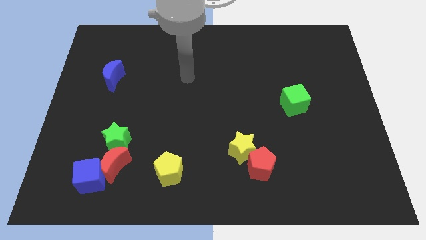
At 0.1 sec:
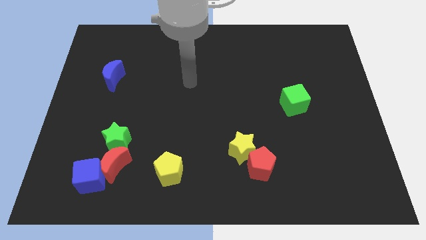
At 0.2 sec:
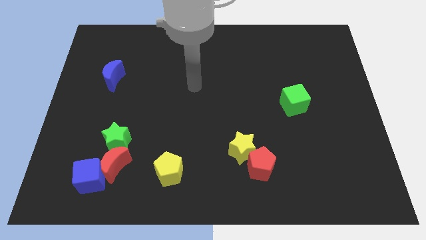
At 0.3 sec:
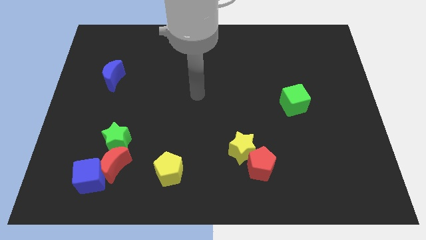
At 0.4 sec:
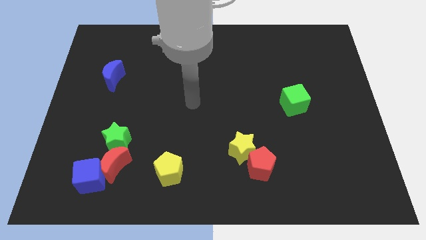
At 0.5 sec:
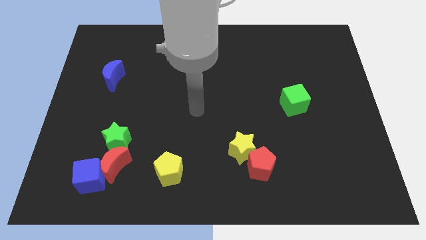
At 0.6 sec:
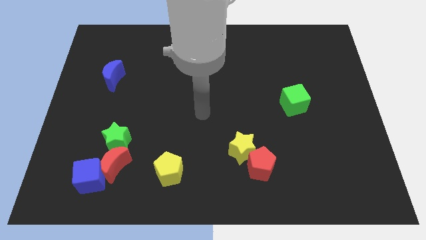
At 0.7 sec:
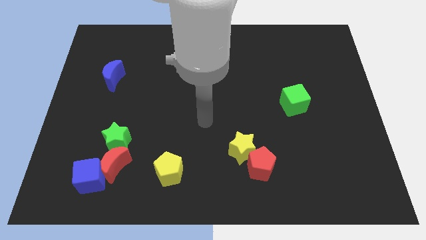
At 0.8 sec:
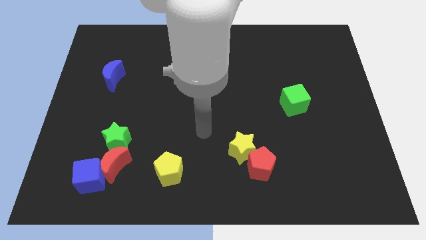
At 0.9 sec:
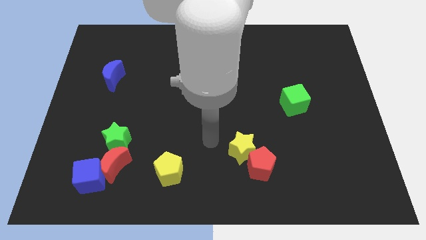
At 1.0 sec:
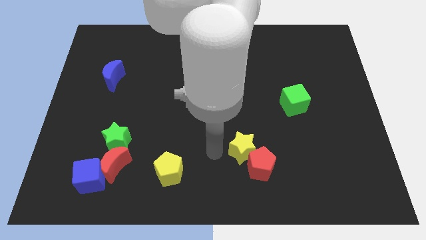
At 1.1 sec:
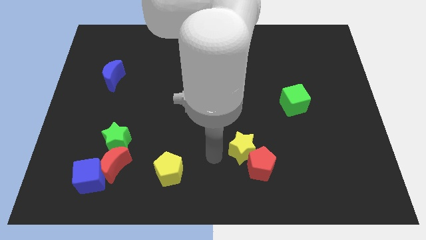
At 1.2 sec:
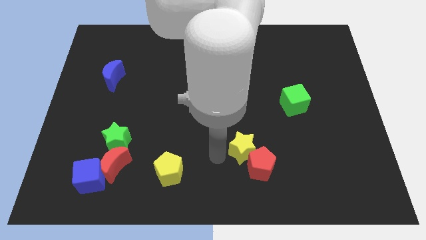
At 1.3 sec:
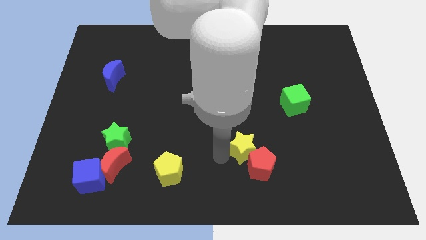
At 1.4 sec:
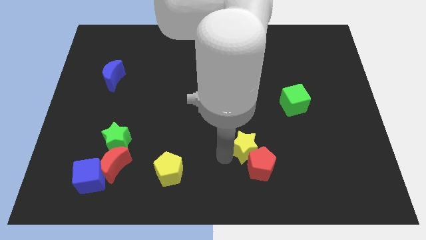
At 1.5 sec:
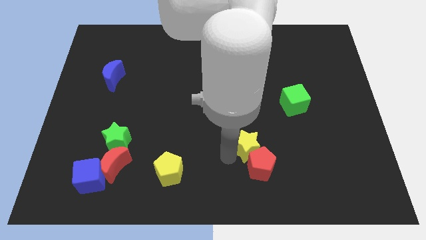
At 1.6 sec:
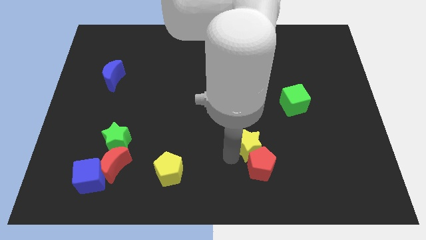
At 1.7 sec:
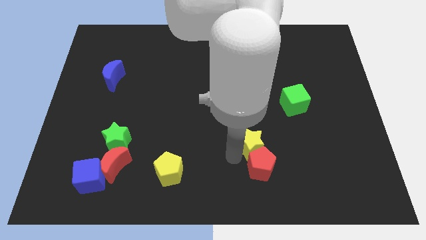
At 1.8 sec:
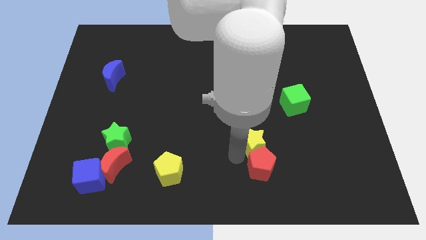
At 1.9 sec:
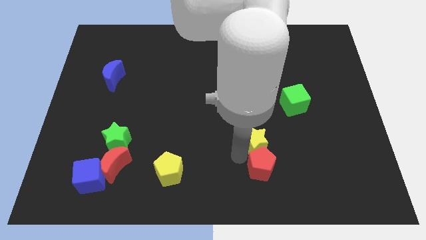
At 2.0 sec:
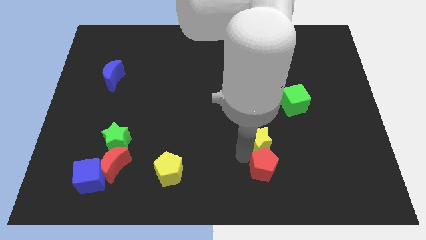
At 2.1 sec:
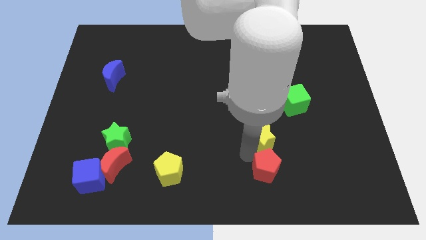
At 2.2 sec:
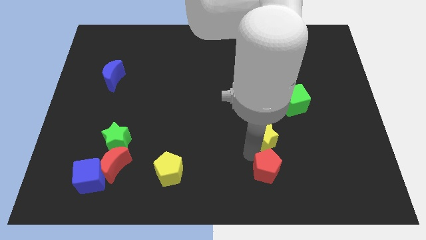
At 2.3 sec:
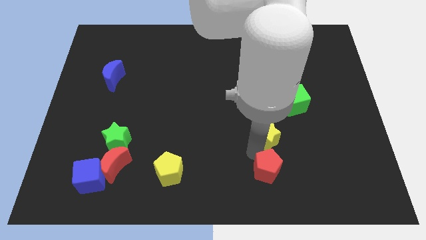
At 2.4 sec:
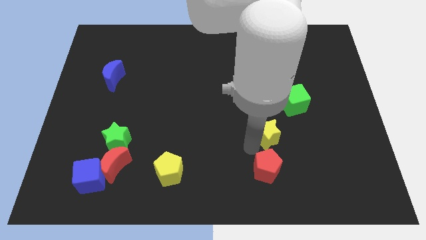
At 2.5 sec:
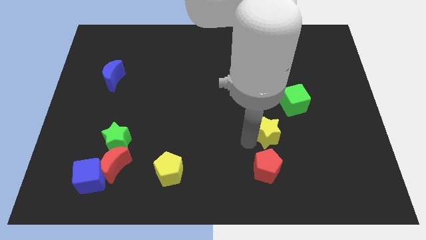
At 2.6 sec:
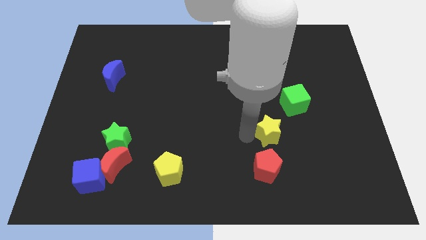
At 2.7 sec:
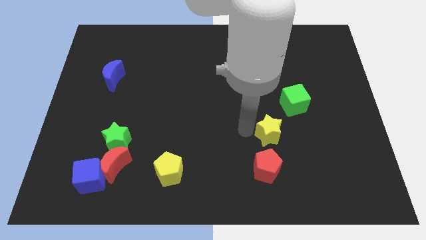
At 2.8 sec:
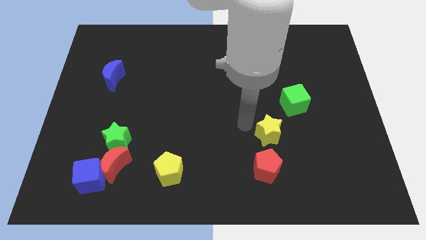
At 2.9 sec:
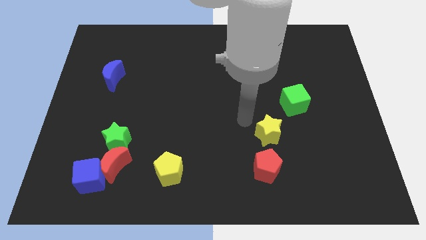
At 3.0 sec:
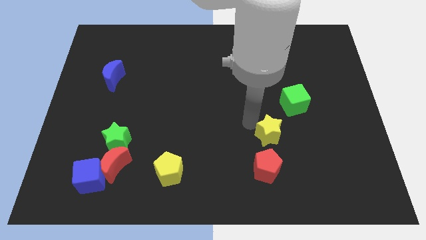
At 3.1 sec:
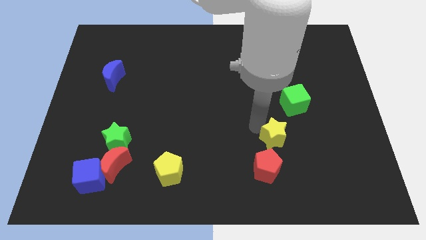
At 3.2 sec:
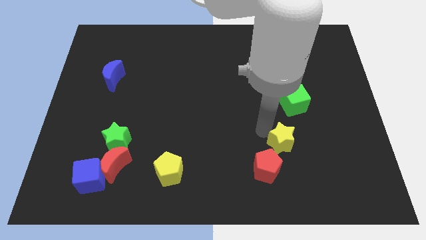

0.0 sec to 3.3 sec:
slightly push the yellow star right

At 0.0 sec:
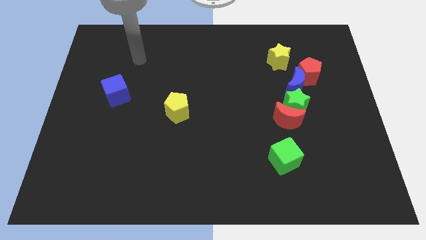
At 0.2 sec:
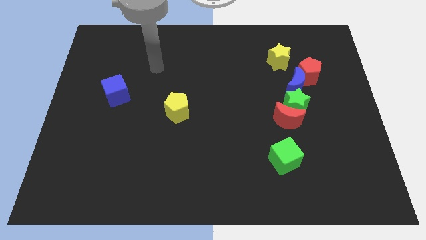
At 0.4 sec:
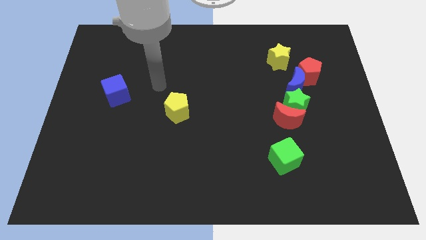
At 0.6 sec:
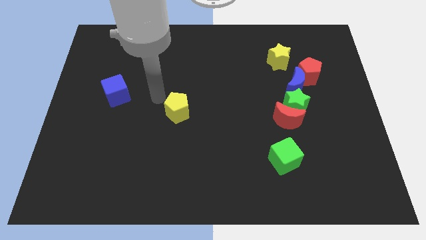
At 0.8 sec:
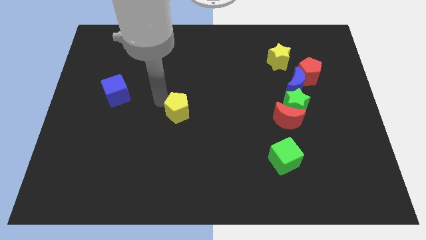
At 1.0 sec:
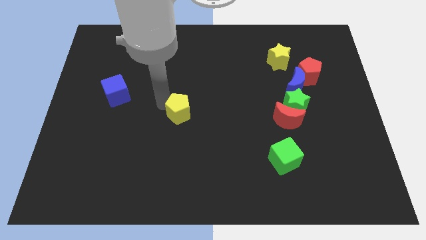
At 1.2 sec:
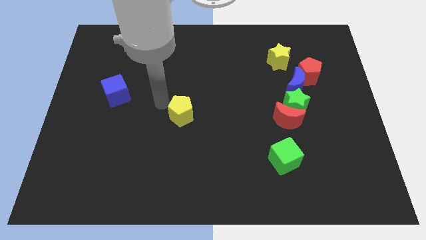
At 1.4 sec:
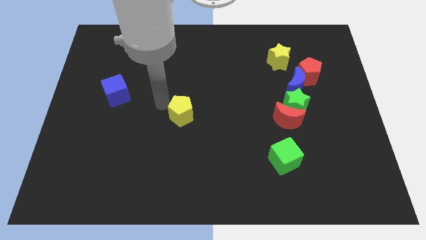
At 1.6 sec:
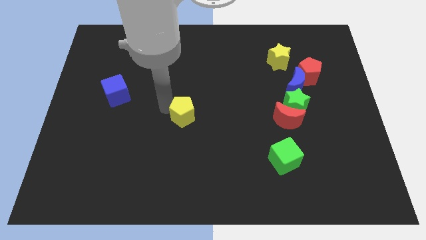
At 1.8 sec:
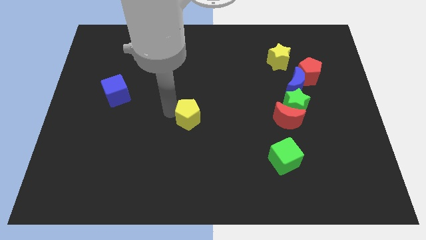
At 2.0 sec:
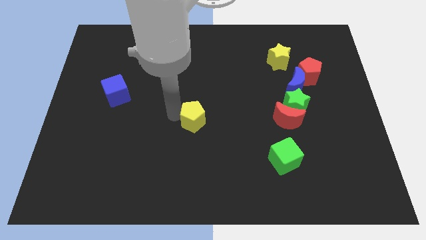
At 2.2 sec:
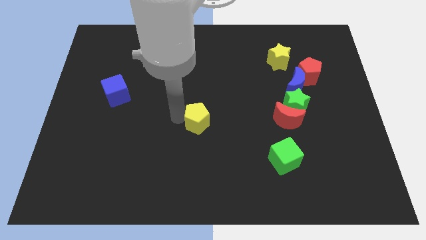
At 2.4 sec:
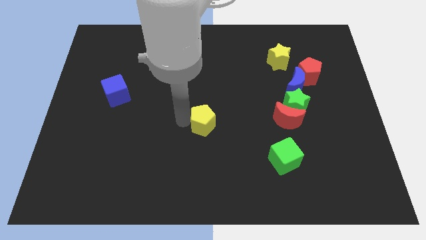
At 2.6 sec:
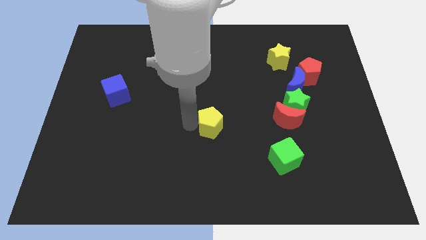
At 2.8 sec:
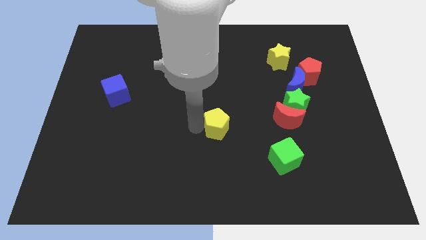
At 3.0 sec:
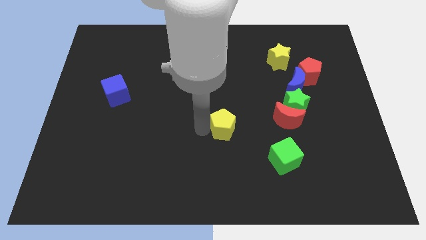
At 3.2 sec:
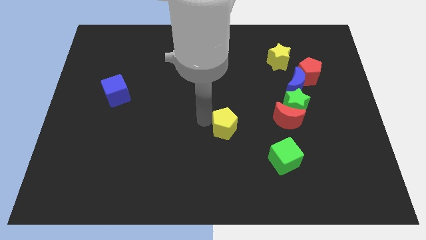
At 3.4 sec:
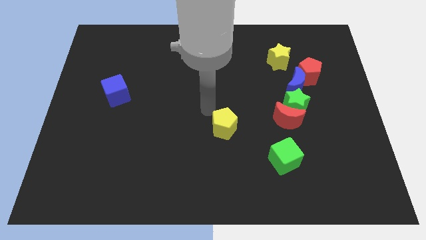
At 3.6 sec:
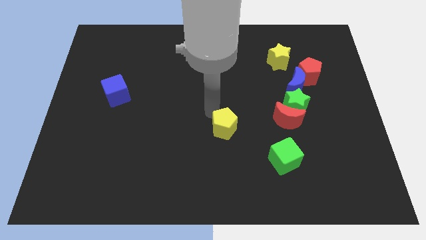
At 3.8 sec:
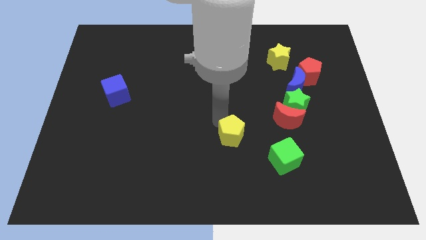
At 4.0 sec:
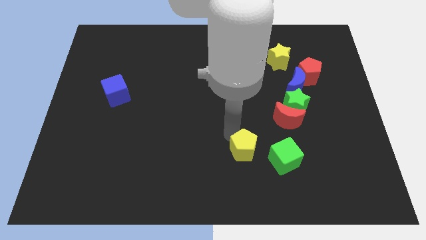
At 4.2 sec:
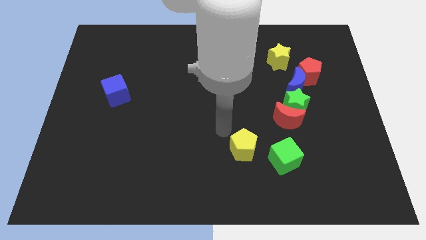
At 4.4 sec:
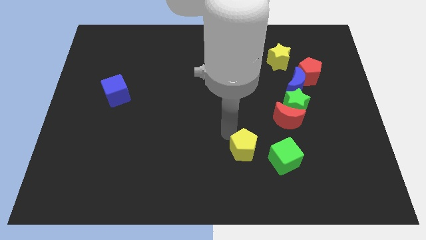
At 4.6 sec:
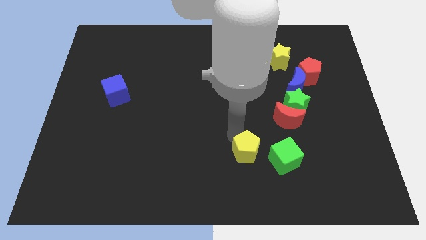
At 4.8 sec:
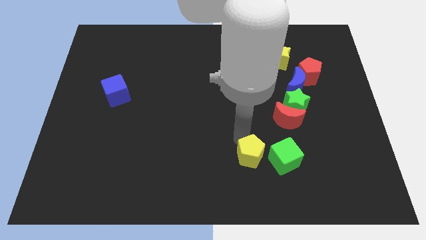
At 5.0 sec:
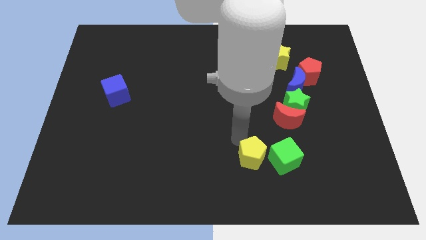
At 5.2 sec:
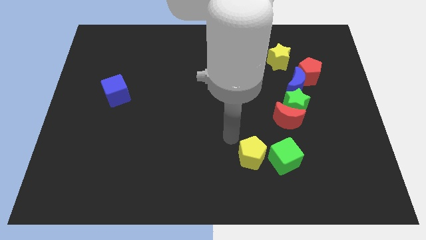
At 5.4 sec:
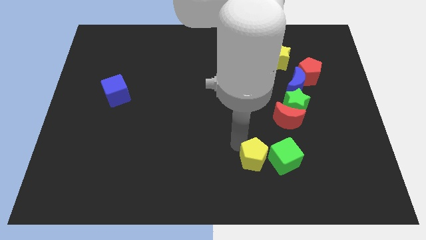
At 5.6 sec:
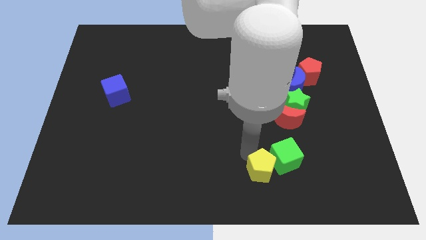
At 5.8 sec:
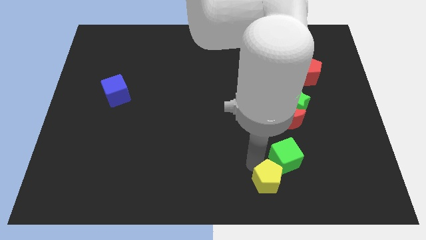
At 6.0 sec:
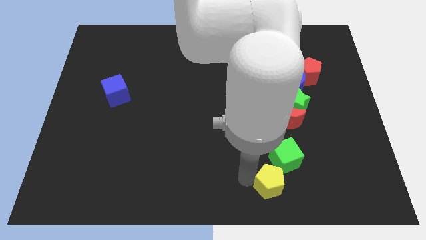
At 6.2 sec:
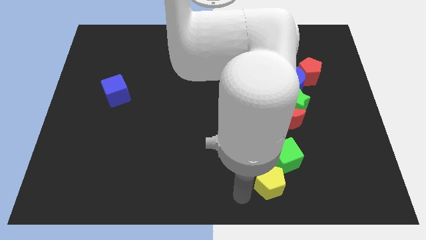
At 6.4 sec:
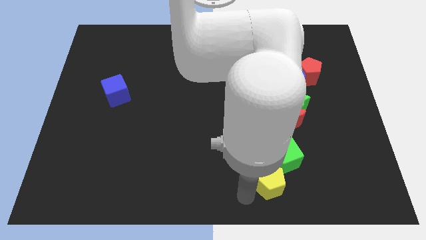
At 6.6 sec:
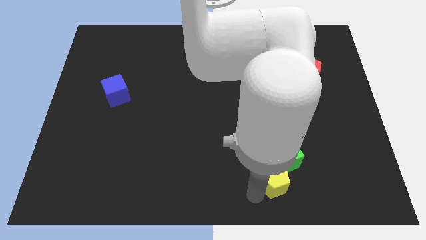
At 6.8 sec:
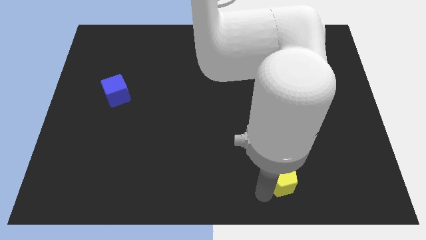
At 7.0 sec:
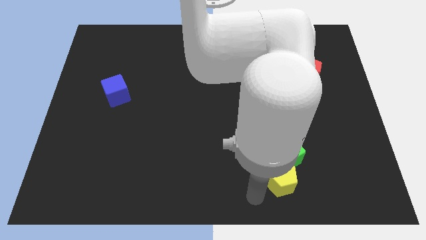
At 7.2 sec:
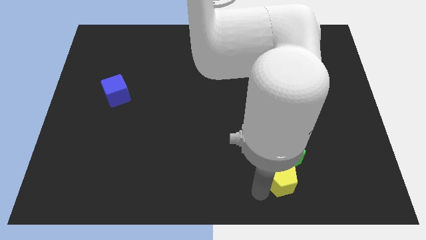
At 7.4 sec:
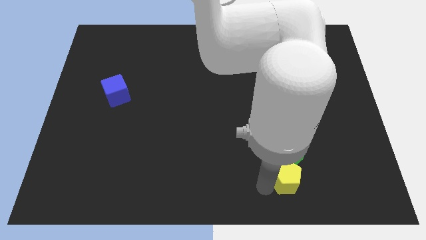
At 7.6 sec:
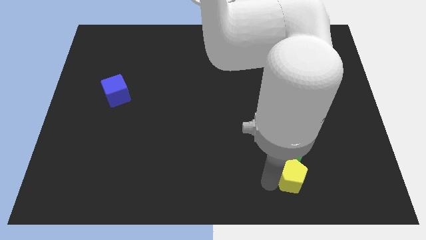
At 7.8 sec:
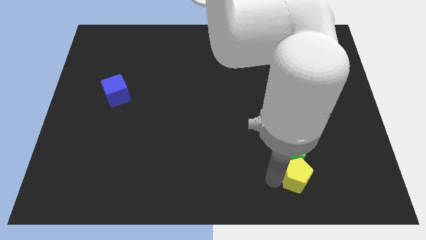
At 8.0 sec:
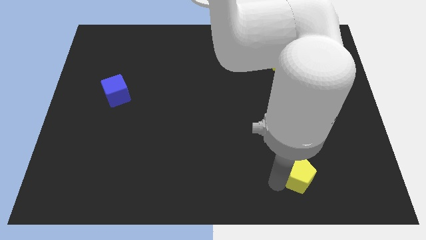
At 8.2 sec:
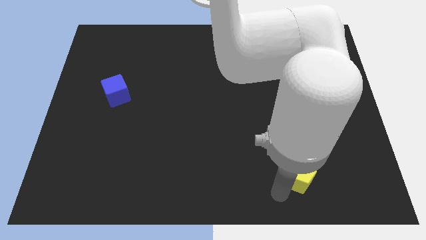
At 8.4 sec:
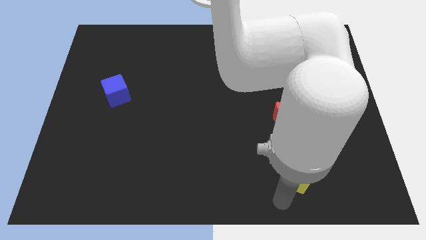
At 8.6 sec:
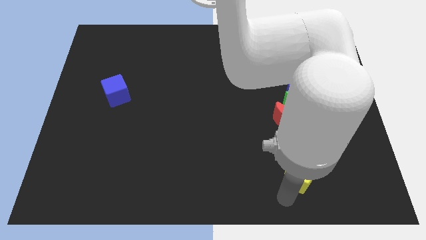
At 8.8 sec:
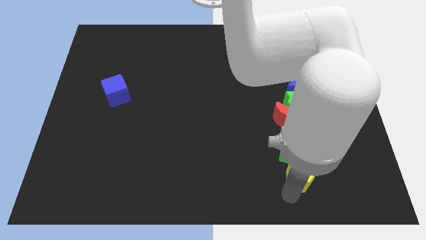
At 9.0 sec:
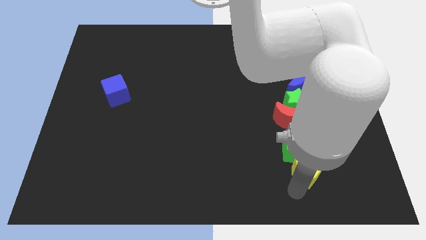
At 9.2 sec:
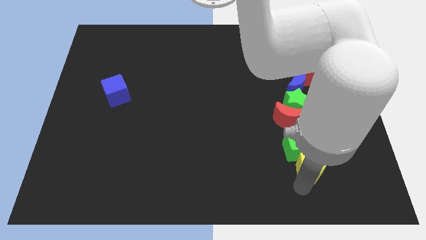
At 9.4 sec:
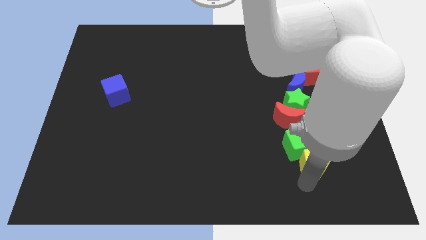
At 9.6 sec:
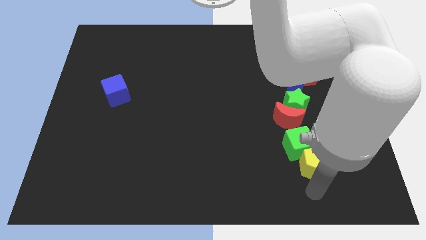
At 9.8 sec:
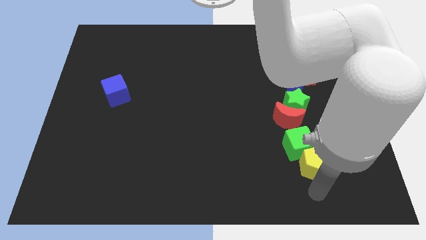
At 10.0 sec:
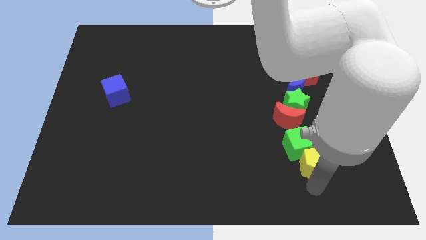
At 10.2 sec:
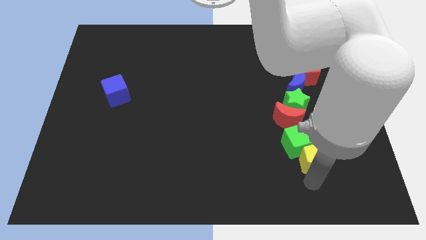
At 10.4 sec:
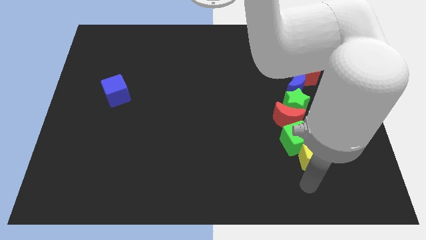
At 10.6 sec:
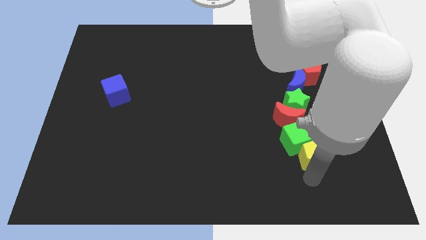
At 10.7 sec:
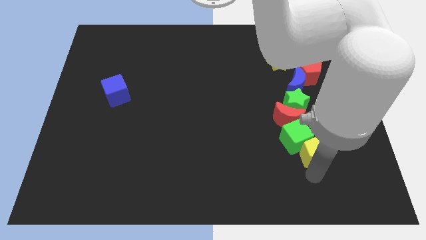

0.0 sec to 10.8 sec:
push the yellow pentagon right
